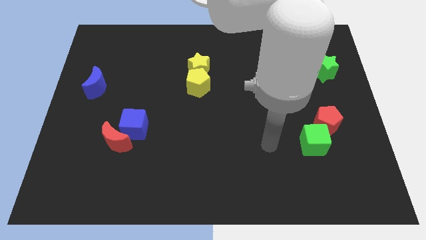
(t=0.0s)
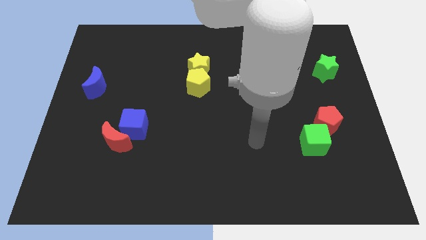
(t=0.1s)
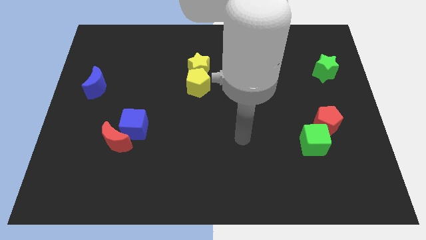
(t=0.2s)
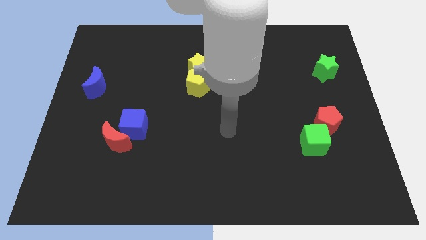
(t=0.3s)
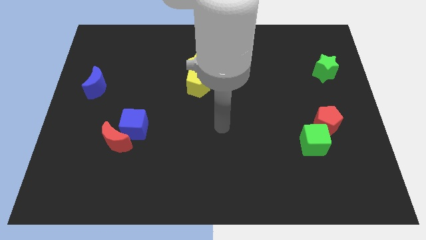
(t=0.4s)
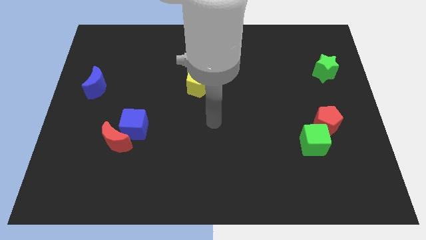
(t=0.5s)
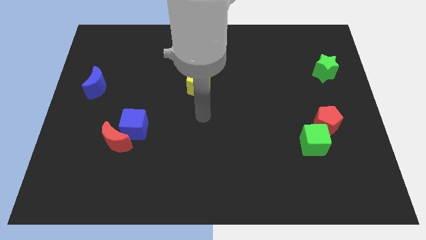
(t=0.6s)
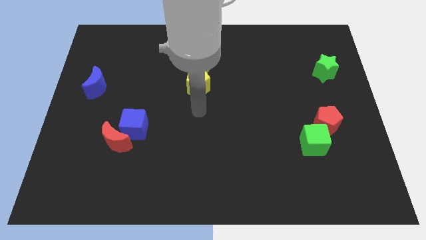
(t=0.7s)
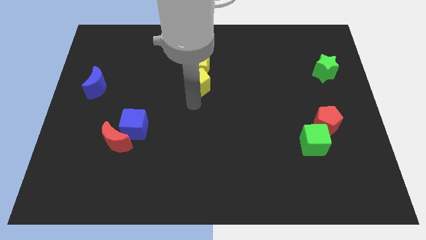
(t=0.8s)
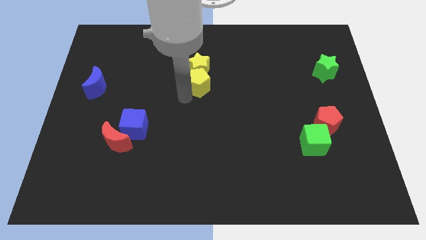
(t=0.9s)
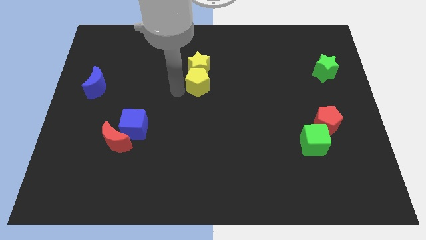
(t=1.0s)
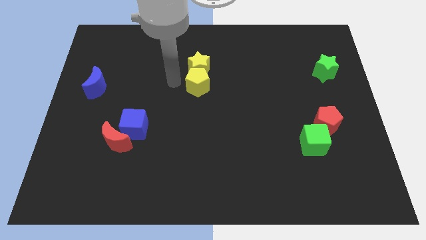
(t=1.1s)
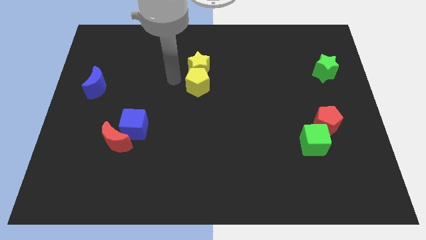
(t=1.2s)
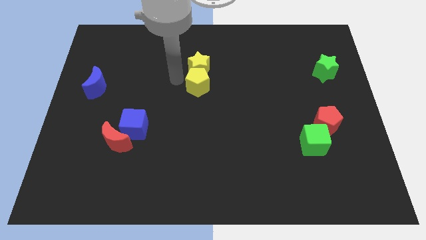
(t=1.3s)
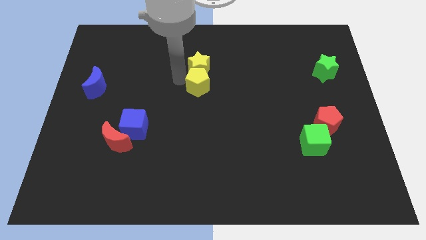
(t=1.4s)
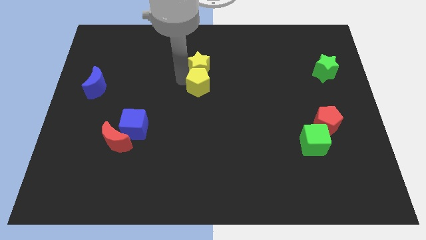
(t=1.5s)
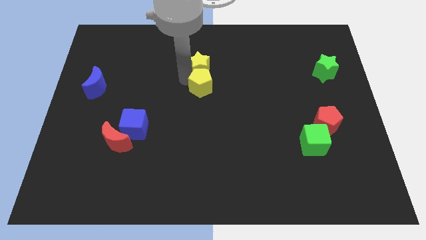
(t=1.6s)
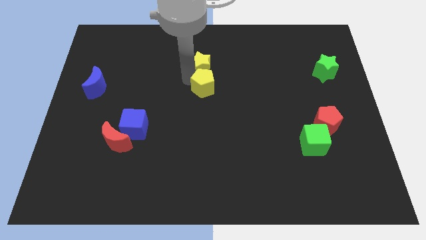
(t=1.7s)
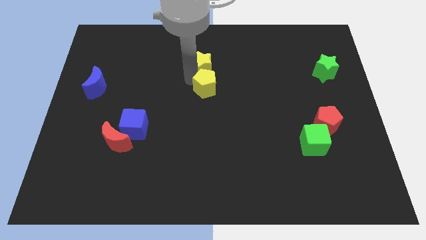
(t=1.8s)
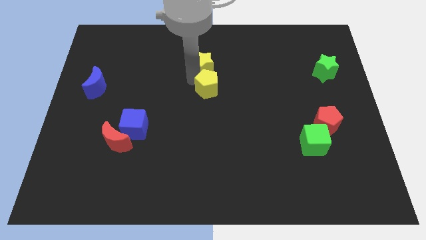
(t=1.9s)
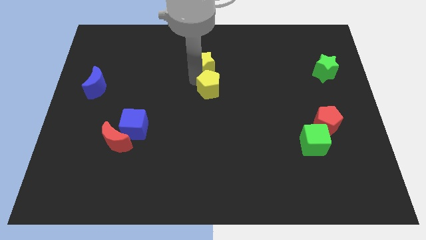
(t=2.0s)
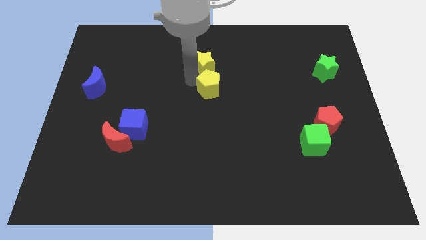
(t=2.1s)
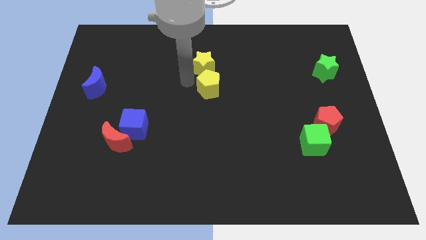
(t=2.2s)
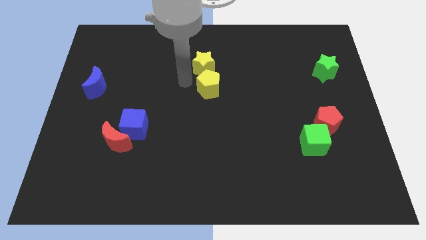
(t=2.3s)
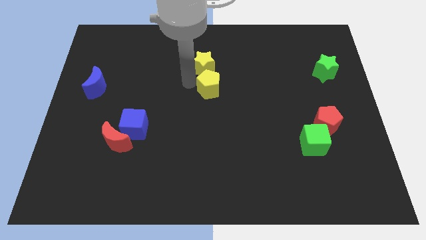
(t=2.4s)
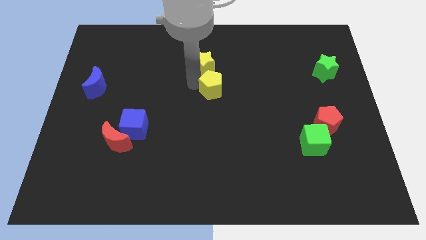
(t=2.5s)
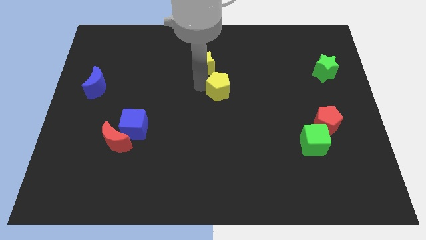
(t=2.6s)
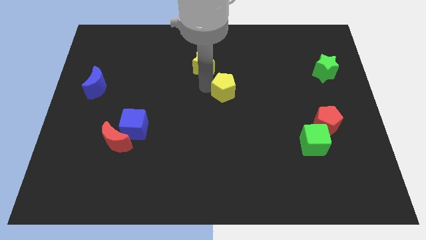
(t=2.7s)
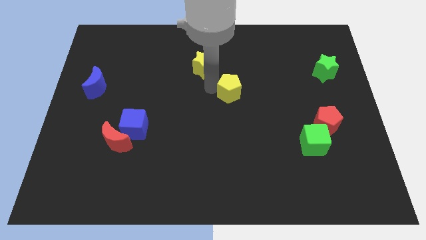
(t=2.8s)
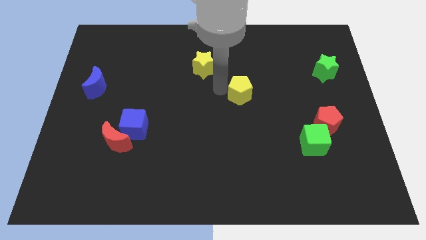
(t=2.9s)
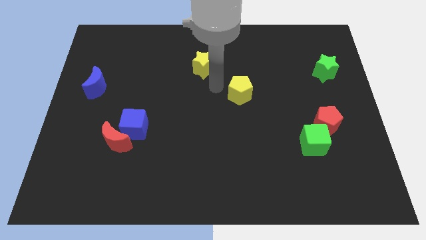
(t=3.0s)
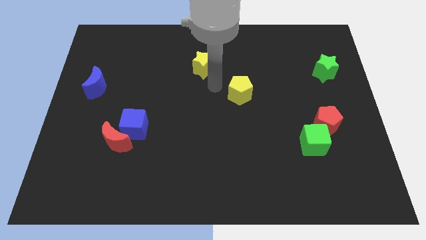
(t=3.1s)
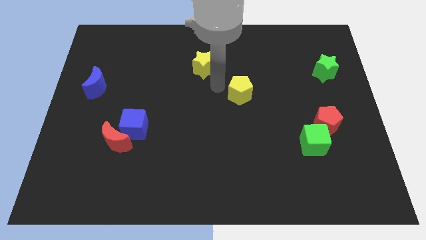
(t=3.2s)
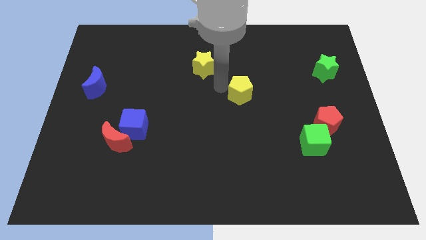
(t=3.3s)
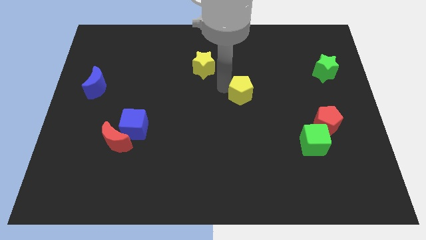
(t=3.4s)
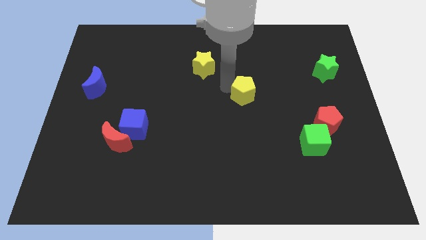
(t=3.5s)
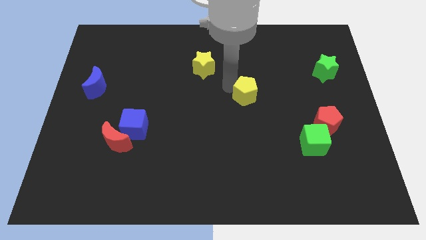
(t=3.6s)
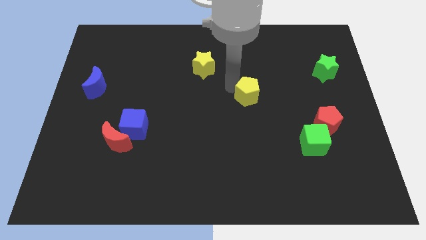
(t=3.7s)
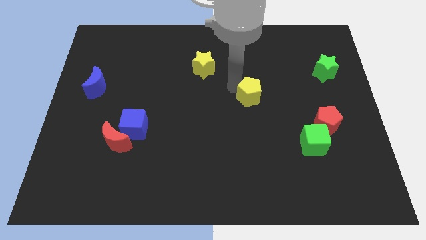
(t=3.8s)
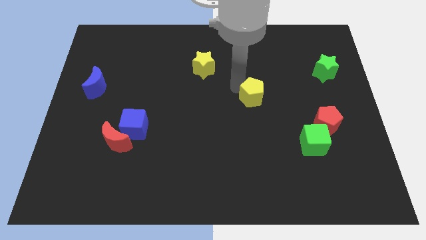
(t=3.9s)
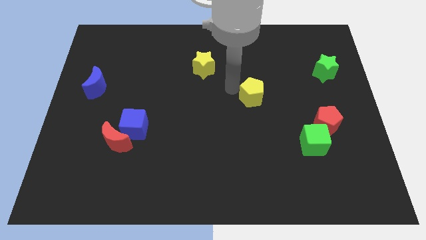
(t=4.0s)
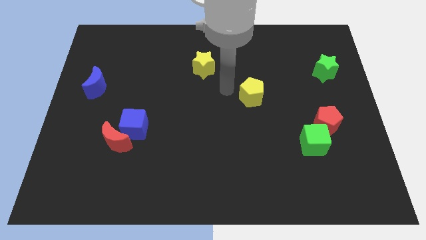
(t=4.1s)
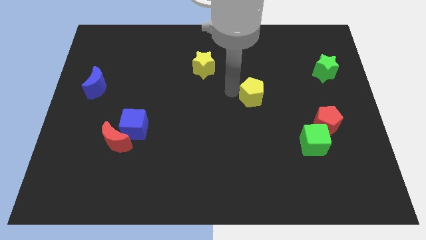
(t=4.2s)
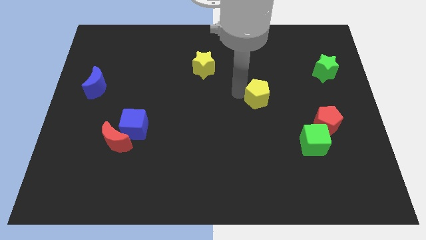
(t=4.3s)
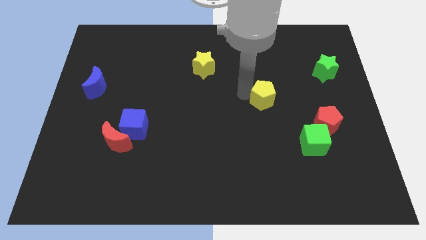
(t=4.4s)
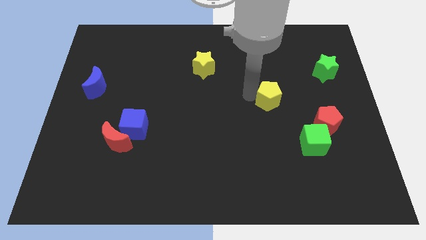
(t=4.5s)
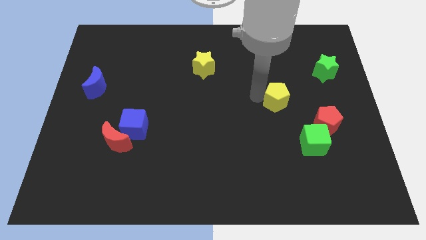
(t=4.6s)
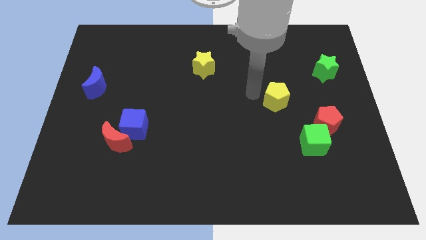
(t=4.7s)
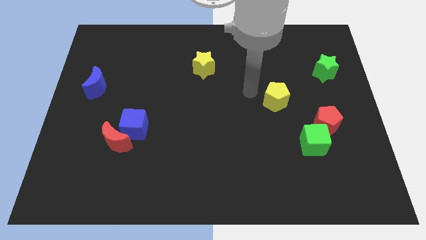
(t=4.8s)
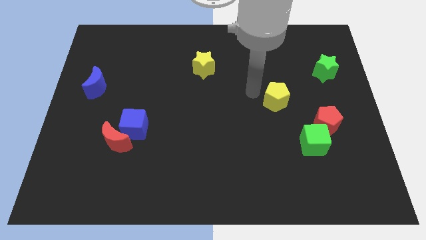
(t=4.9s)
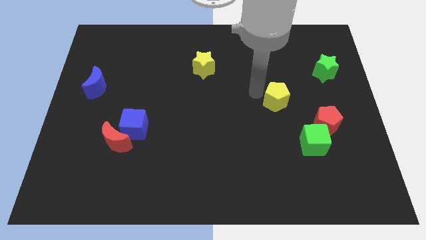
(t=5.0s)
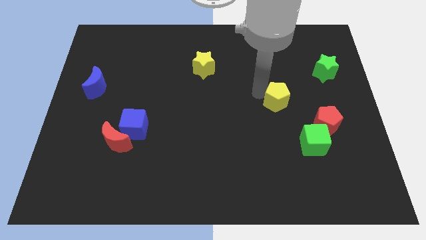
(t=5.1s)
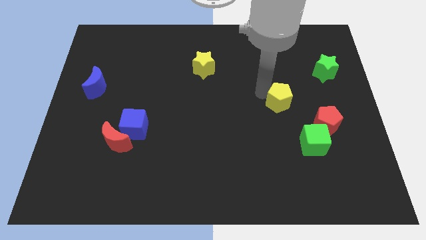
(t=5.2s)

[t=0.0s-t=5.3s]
put the yellow pentagon to the top left of the red pentagon

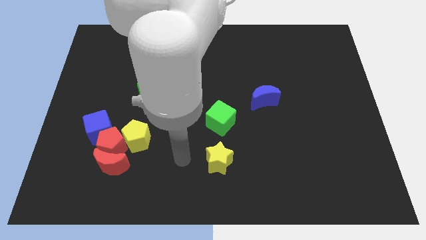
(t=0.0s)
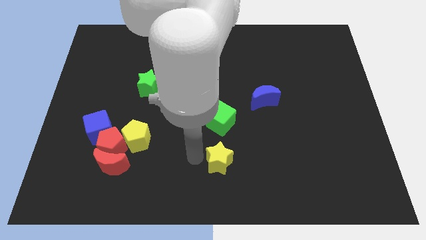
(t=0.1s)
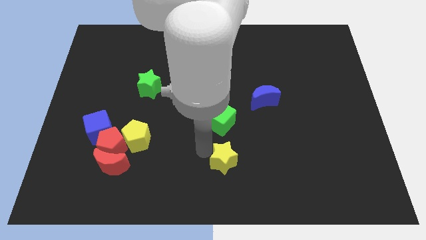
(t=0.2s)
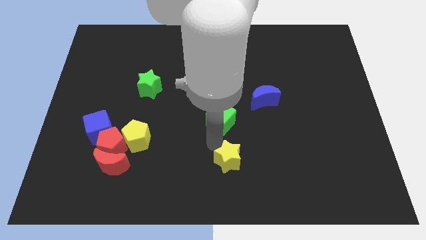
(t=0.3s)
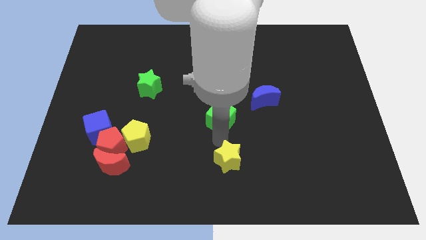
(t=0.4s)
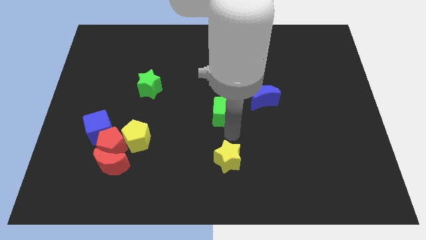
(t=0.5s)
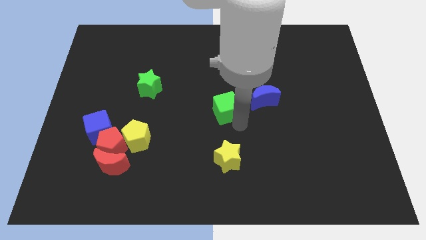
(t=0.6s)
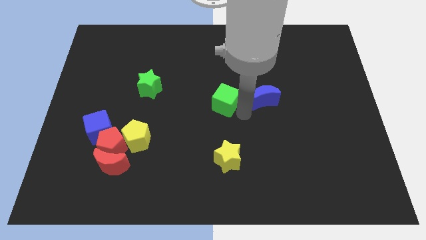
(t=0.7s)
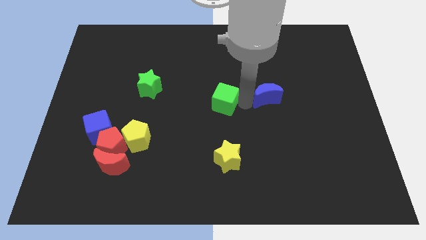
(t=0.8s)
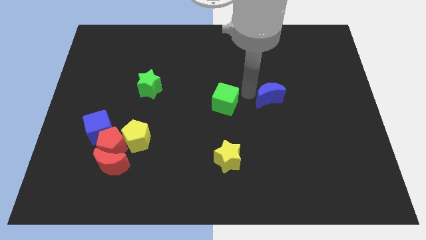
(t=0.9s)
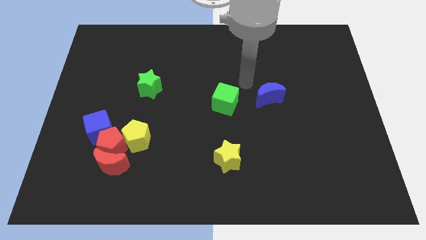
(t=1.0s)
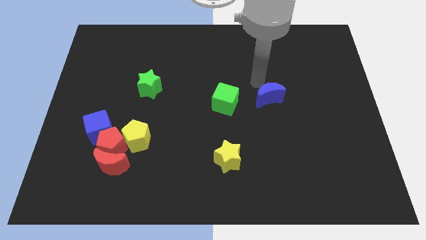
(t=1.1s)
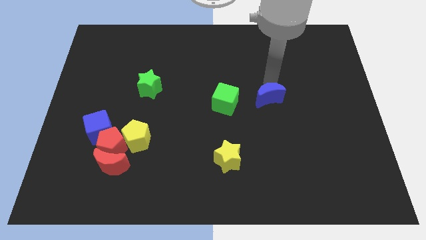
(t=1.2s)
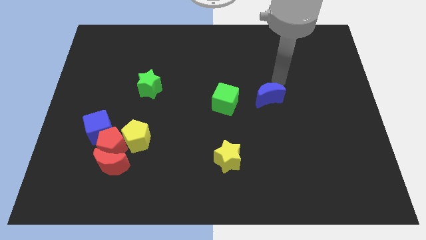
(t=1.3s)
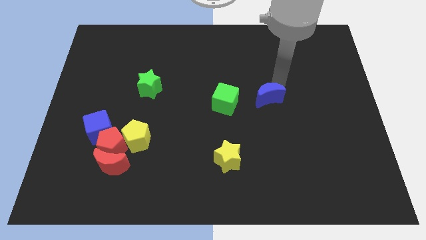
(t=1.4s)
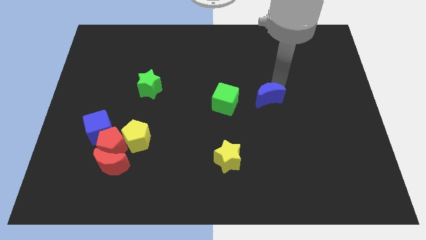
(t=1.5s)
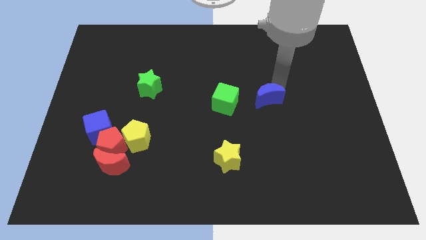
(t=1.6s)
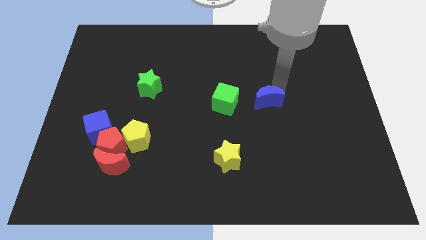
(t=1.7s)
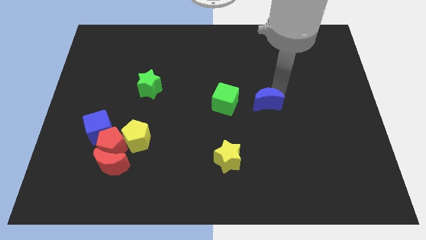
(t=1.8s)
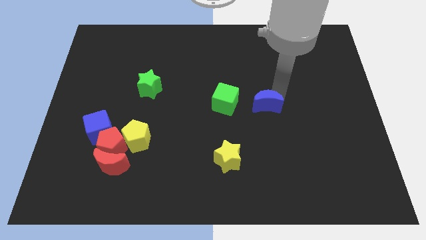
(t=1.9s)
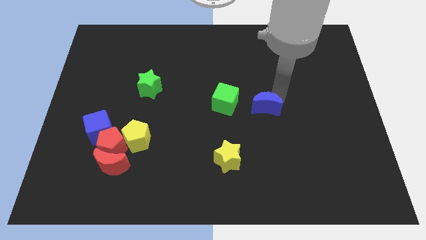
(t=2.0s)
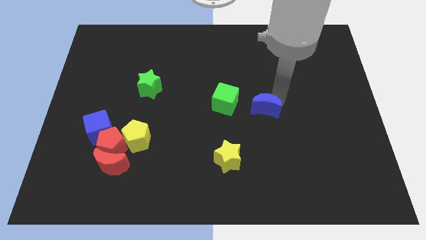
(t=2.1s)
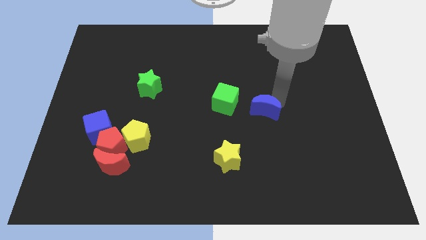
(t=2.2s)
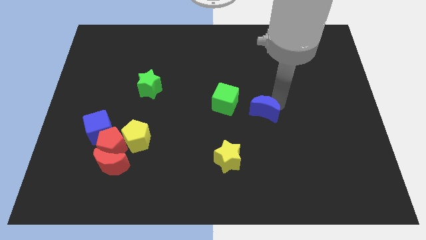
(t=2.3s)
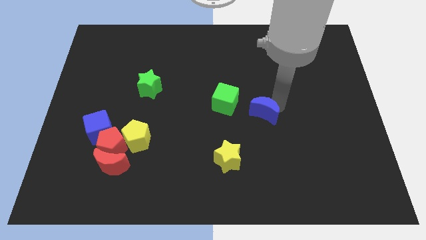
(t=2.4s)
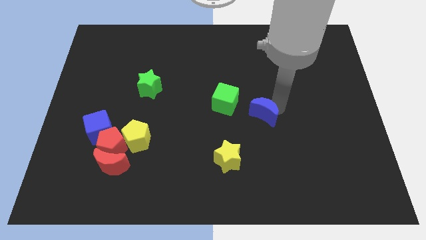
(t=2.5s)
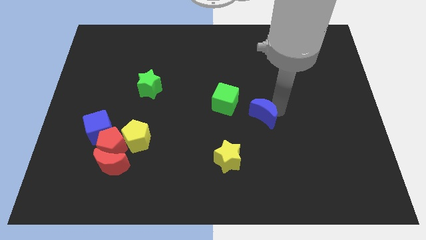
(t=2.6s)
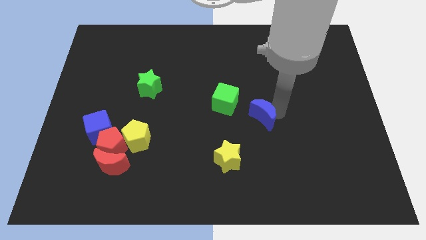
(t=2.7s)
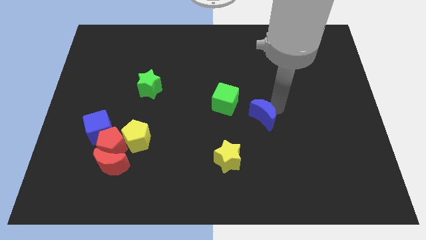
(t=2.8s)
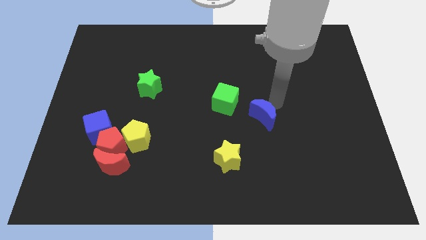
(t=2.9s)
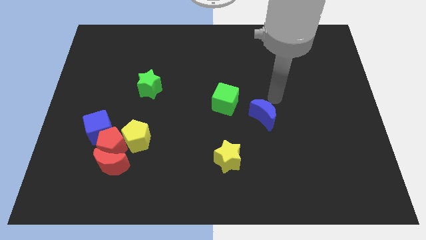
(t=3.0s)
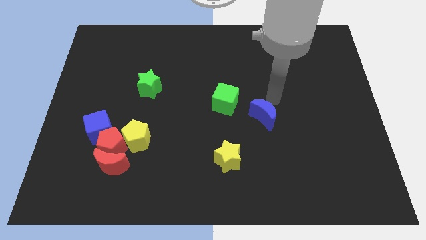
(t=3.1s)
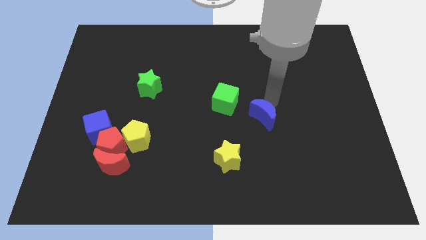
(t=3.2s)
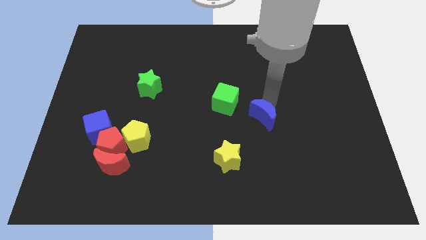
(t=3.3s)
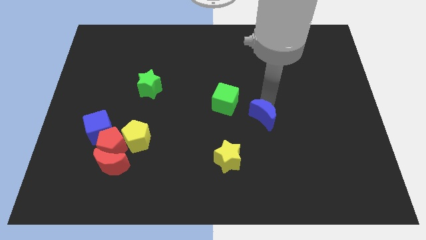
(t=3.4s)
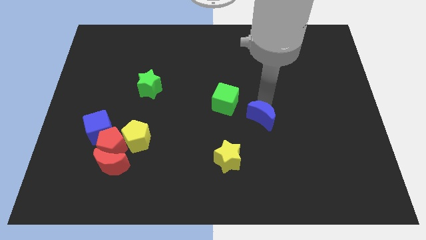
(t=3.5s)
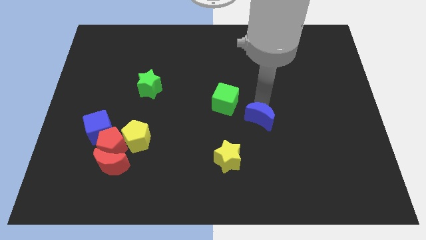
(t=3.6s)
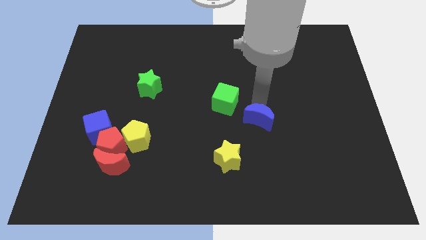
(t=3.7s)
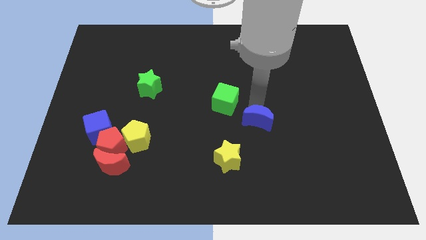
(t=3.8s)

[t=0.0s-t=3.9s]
put the blue moon to the top right of the yellow star
